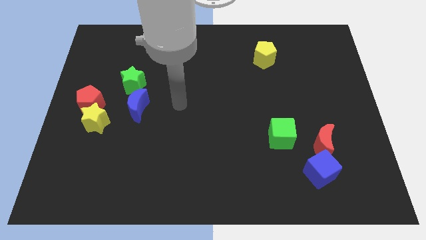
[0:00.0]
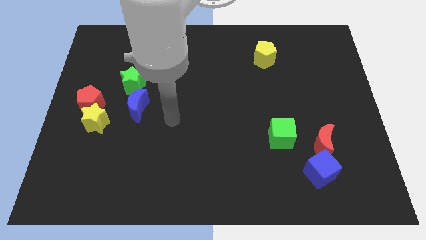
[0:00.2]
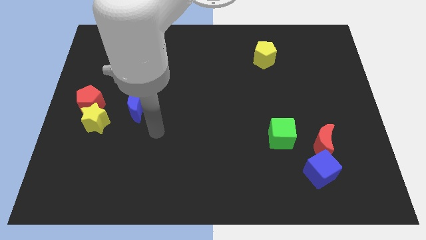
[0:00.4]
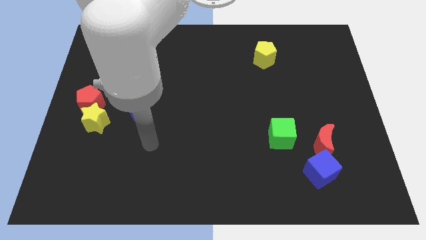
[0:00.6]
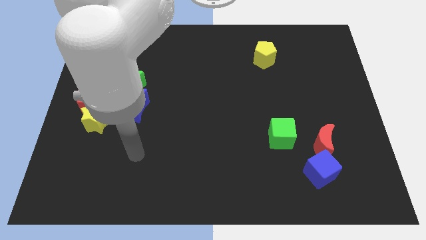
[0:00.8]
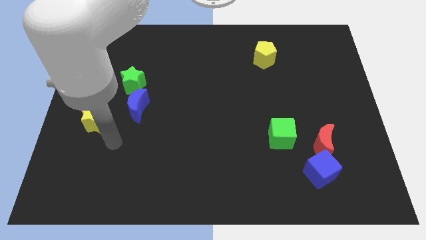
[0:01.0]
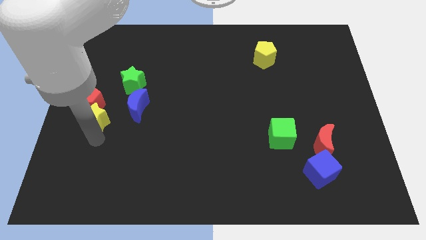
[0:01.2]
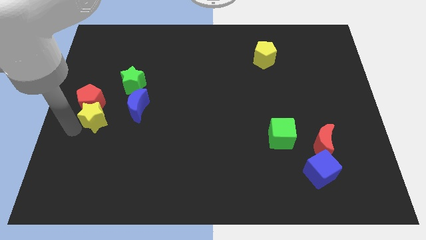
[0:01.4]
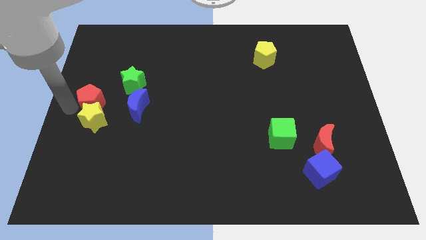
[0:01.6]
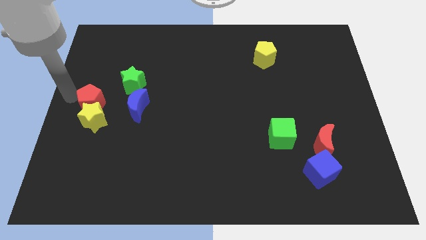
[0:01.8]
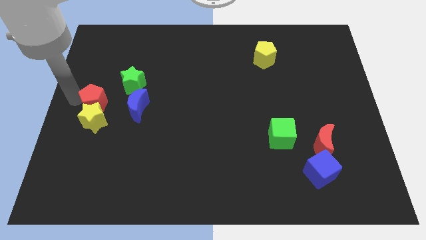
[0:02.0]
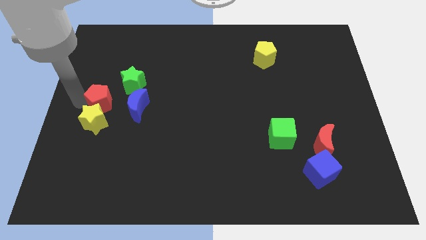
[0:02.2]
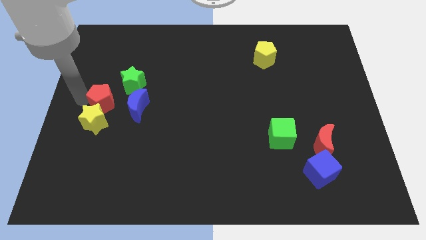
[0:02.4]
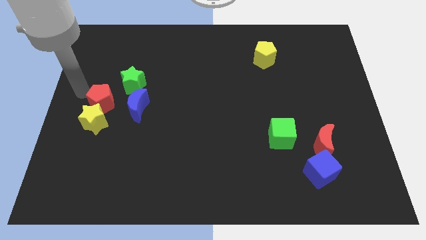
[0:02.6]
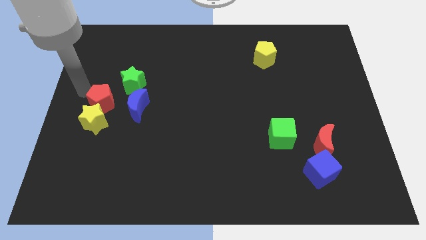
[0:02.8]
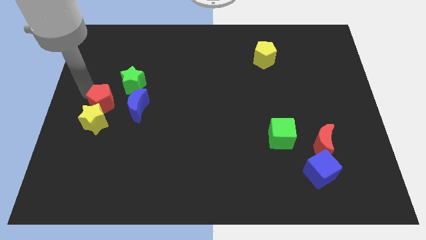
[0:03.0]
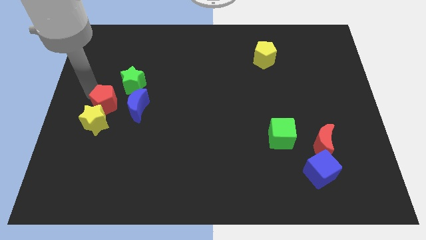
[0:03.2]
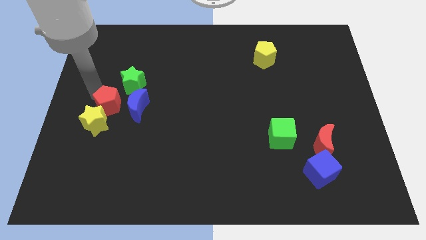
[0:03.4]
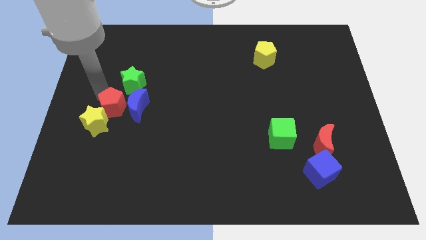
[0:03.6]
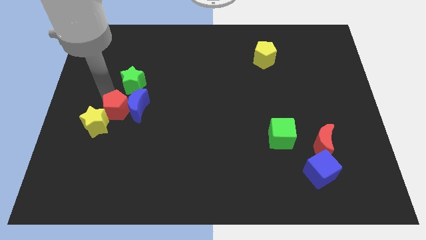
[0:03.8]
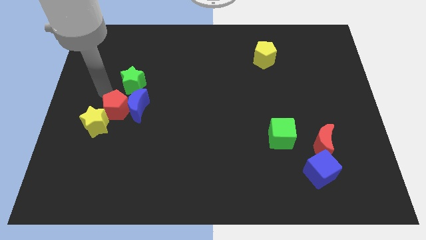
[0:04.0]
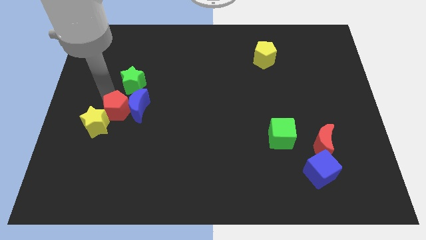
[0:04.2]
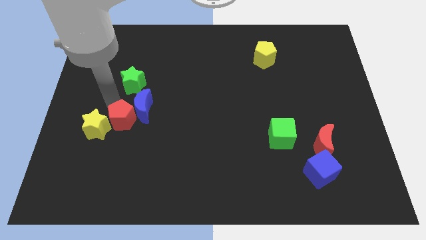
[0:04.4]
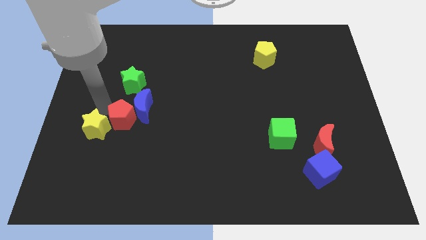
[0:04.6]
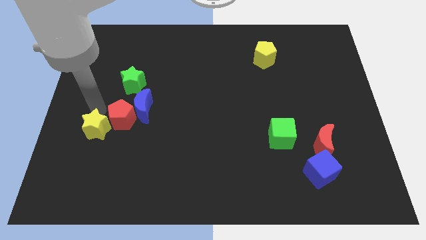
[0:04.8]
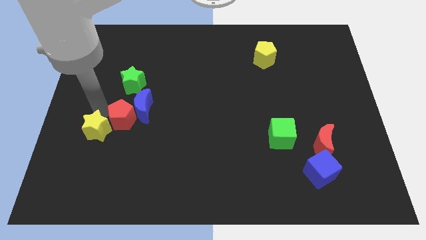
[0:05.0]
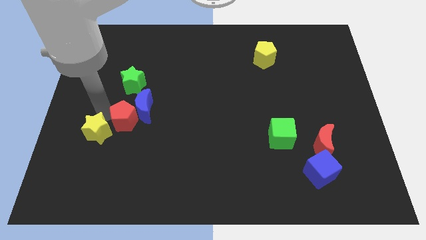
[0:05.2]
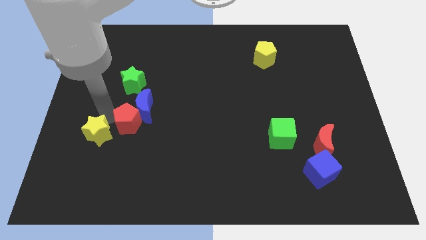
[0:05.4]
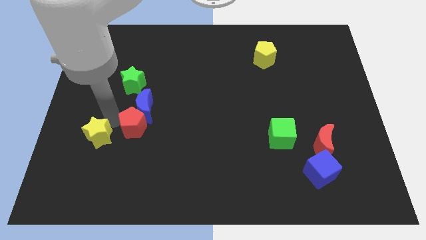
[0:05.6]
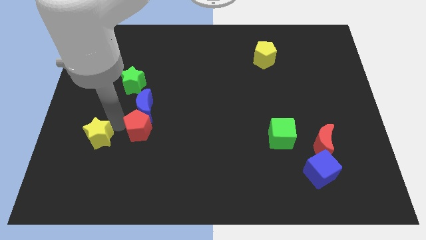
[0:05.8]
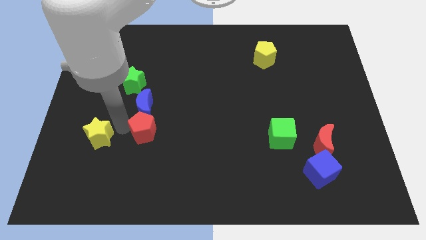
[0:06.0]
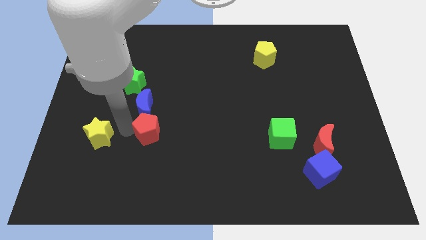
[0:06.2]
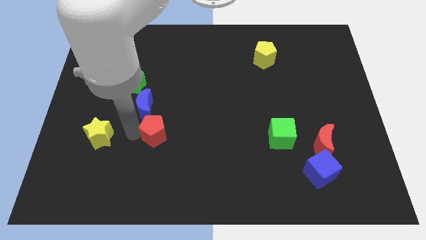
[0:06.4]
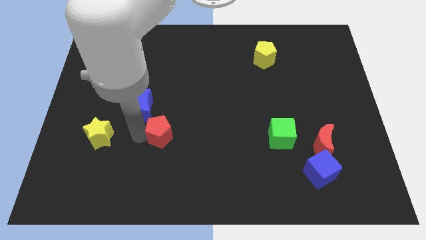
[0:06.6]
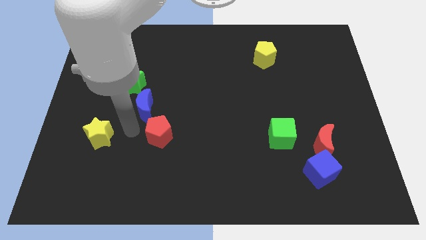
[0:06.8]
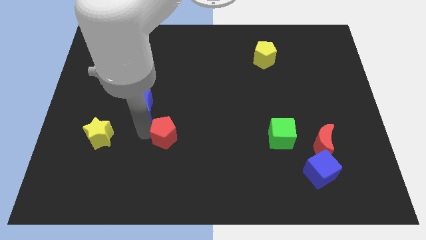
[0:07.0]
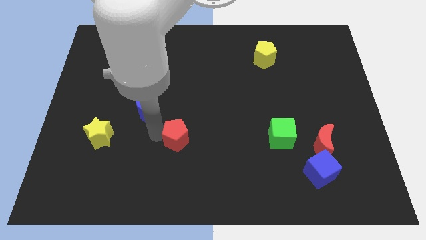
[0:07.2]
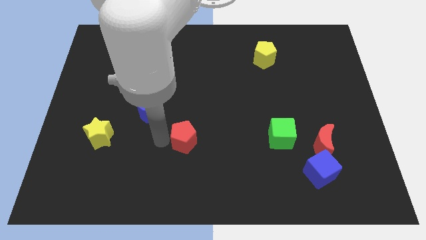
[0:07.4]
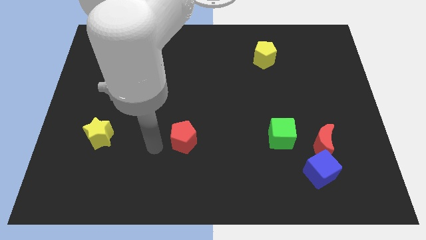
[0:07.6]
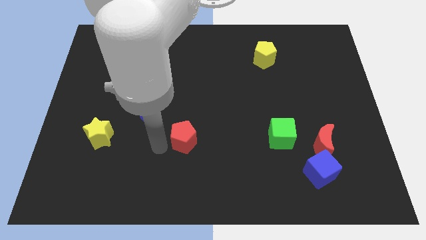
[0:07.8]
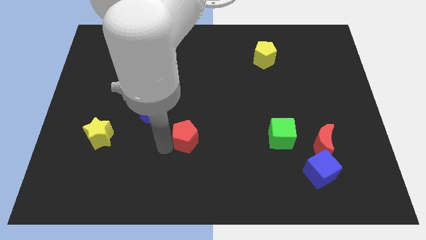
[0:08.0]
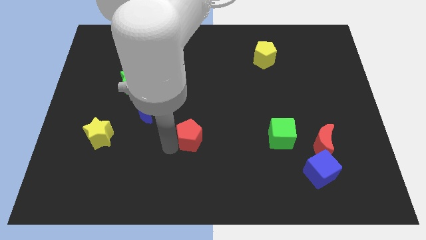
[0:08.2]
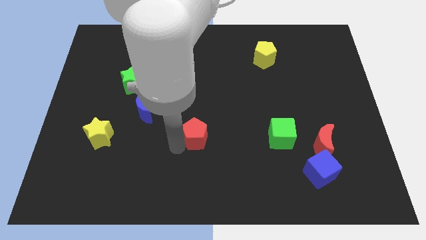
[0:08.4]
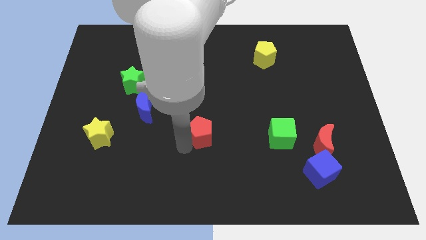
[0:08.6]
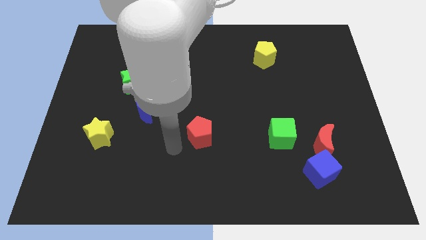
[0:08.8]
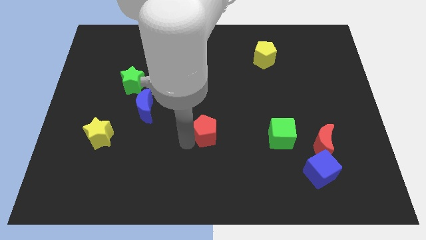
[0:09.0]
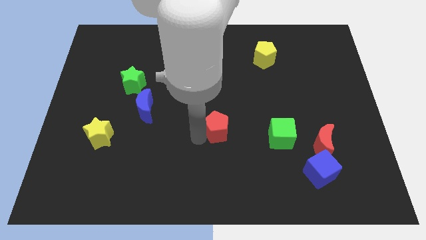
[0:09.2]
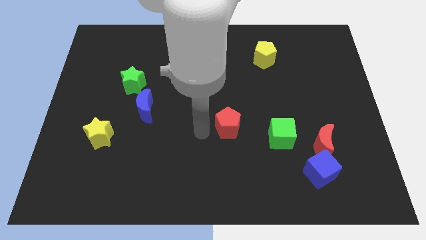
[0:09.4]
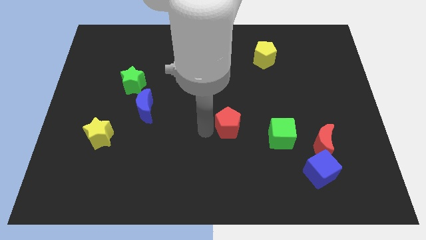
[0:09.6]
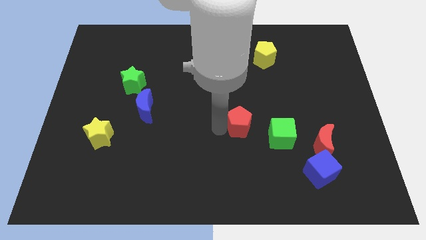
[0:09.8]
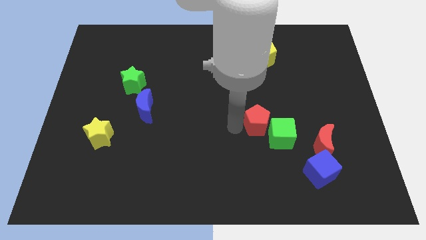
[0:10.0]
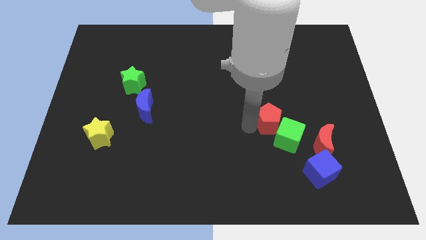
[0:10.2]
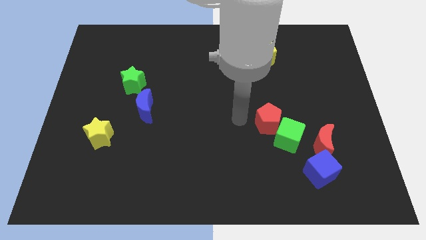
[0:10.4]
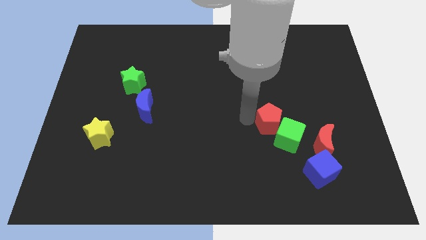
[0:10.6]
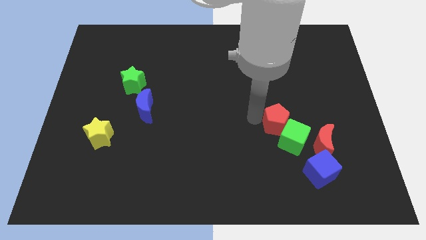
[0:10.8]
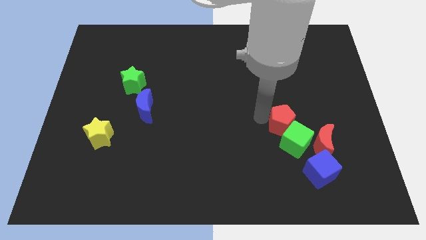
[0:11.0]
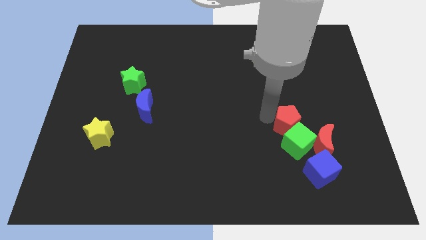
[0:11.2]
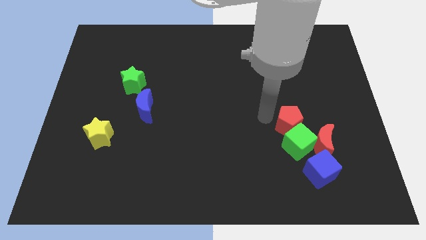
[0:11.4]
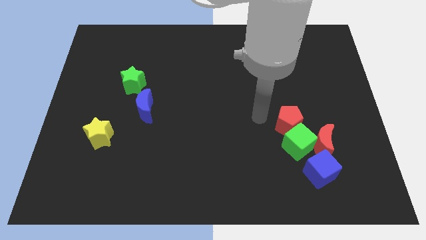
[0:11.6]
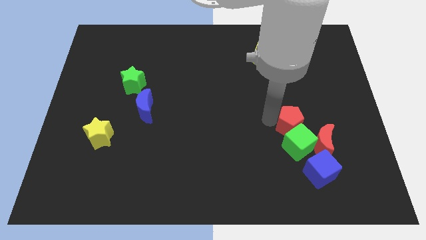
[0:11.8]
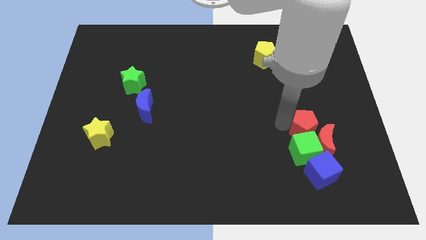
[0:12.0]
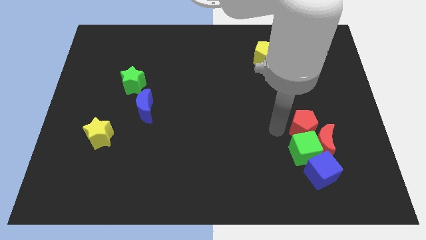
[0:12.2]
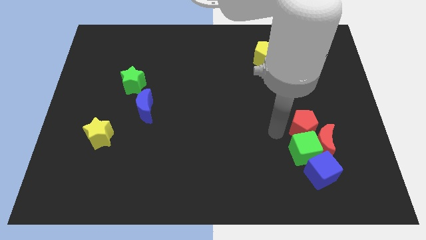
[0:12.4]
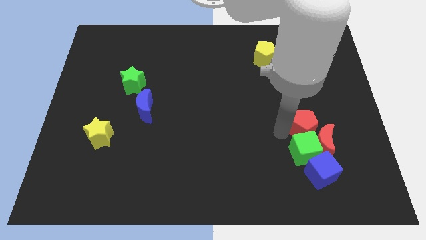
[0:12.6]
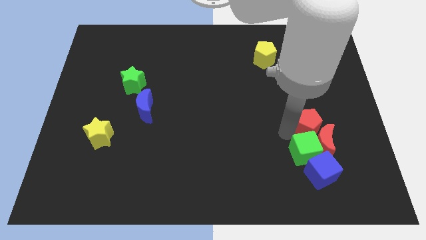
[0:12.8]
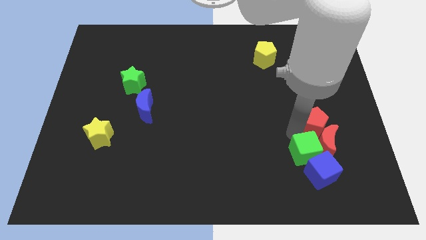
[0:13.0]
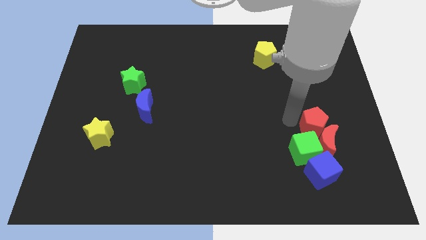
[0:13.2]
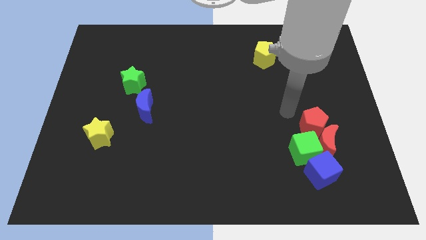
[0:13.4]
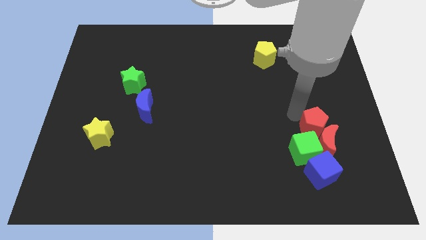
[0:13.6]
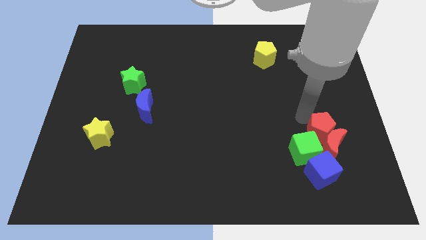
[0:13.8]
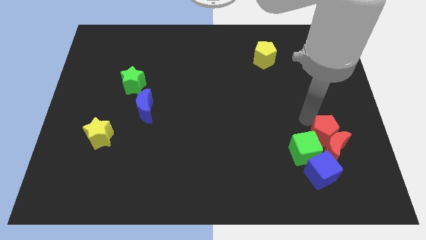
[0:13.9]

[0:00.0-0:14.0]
push the red pentagon just right of the green cube
